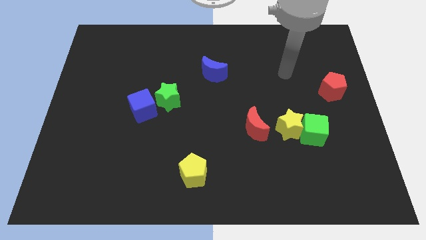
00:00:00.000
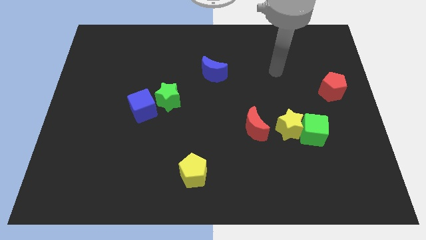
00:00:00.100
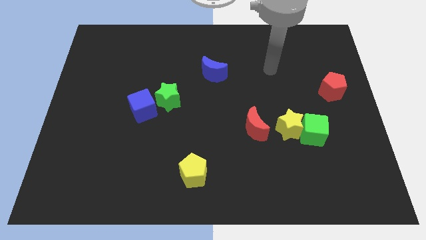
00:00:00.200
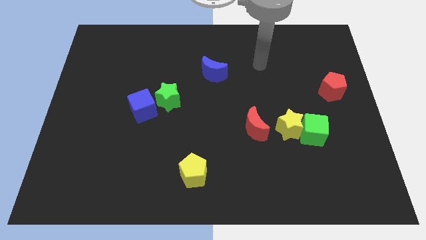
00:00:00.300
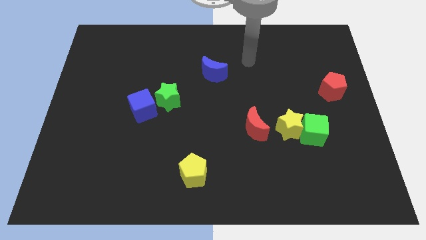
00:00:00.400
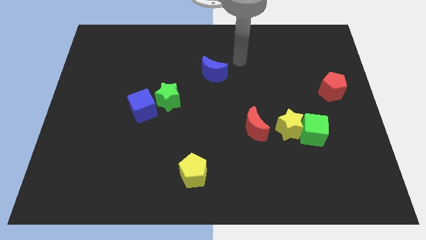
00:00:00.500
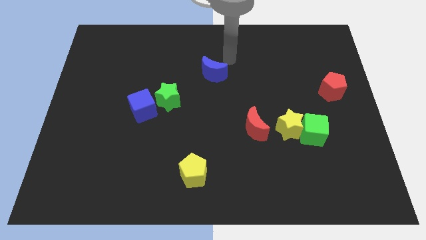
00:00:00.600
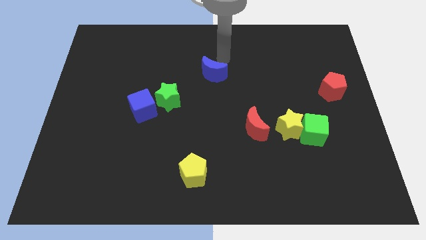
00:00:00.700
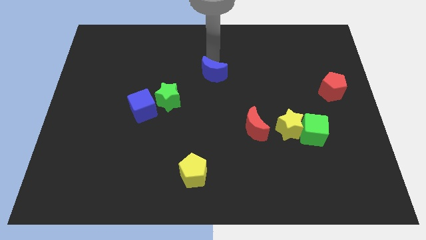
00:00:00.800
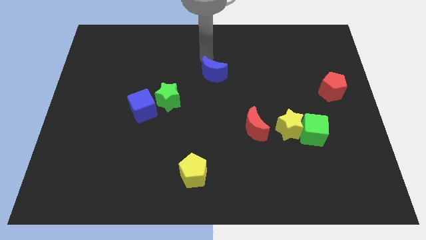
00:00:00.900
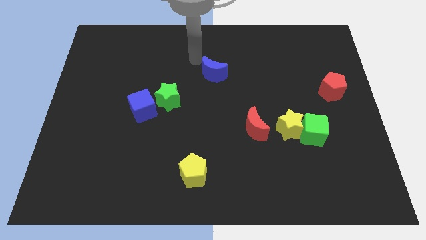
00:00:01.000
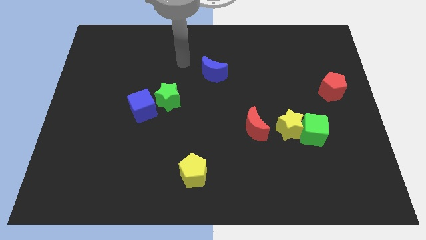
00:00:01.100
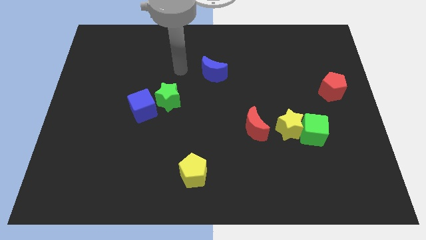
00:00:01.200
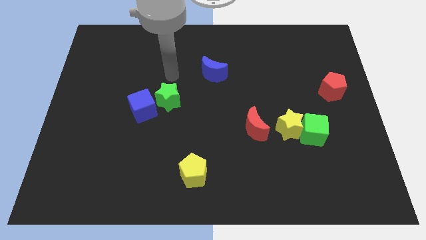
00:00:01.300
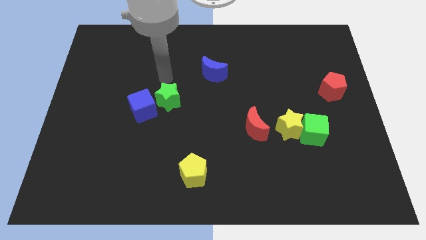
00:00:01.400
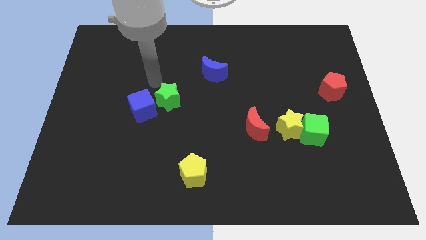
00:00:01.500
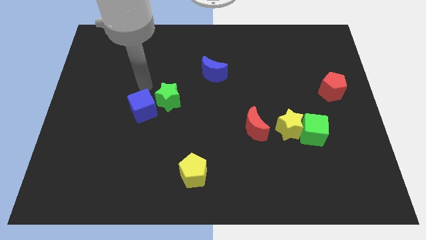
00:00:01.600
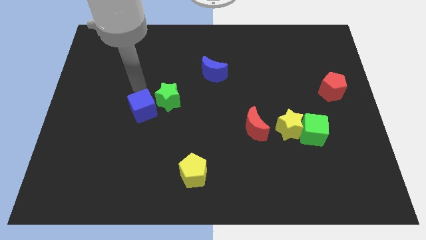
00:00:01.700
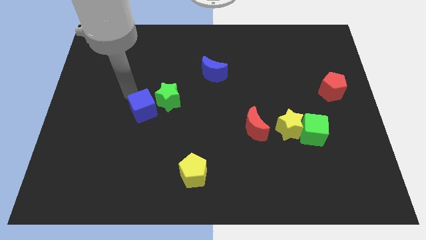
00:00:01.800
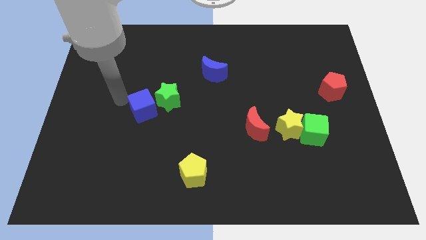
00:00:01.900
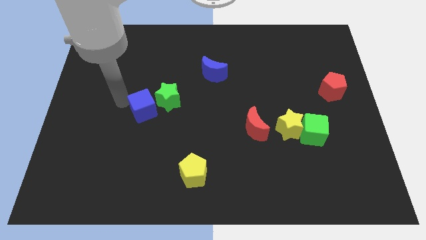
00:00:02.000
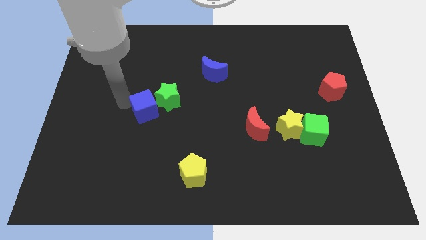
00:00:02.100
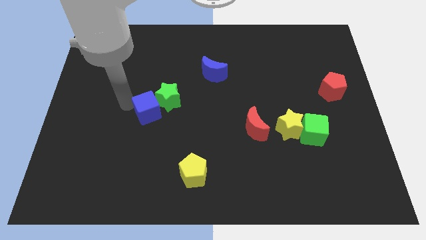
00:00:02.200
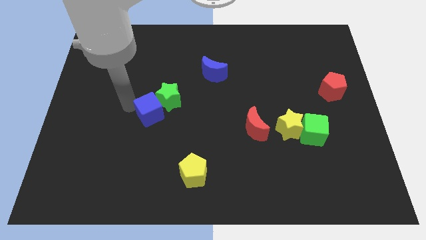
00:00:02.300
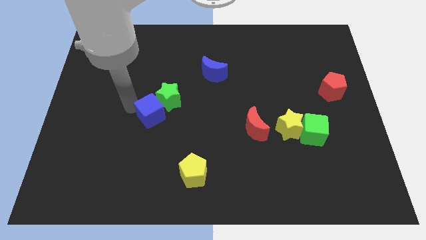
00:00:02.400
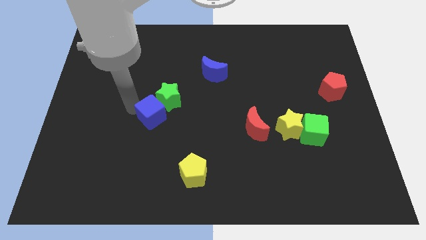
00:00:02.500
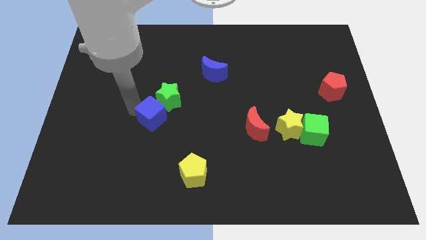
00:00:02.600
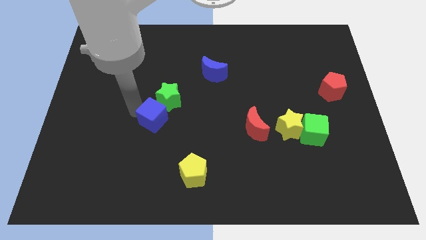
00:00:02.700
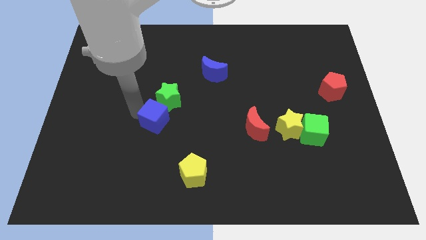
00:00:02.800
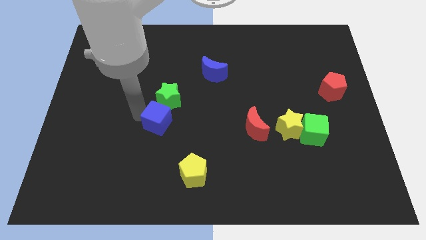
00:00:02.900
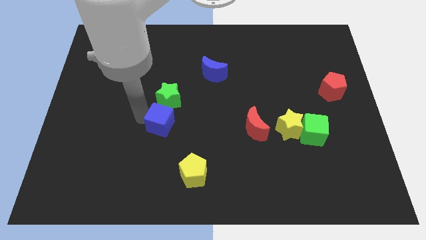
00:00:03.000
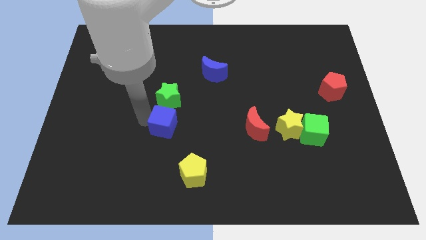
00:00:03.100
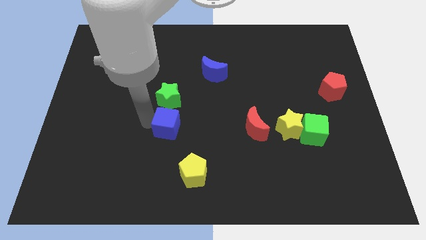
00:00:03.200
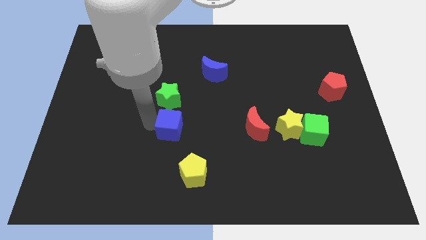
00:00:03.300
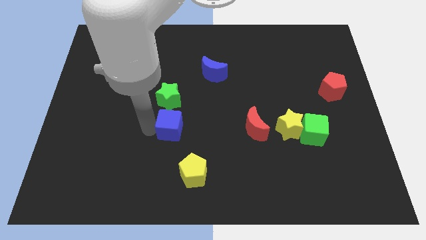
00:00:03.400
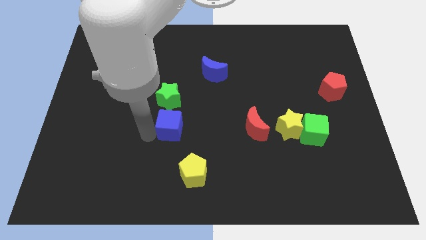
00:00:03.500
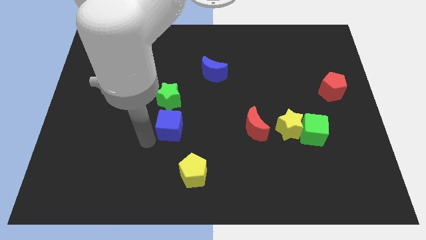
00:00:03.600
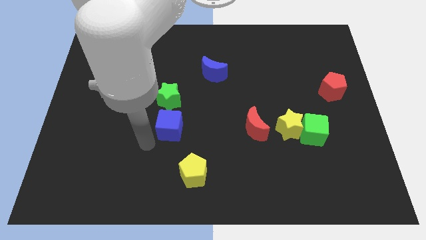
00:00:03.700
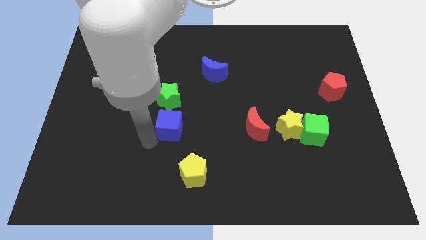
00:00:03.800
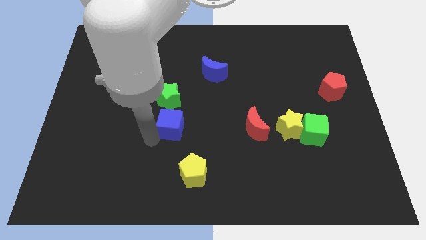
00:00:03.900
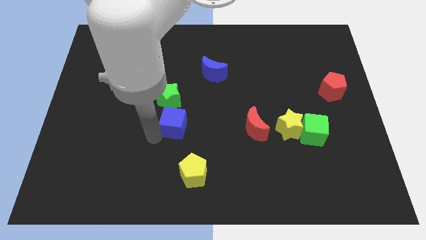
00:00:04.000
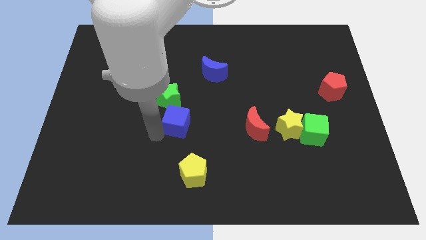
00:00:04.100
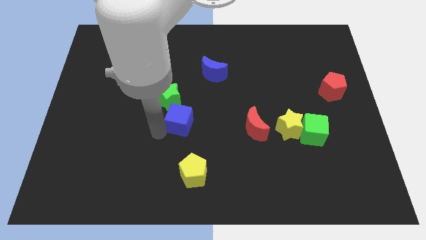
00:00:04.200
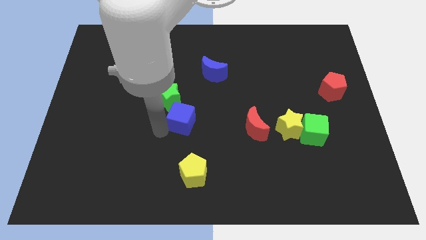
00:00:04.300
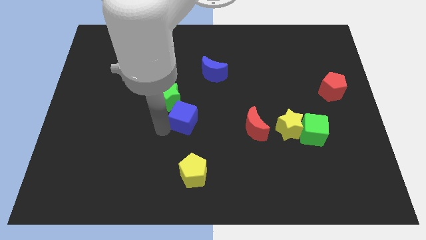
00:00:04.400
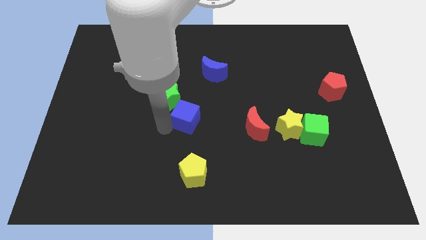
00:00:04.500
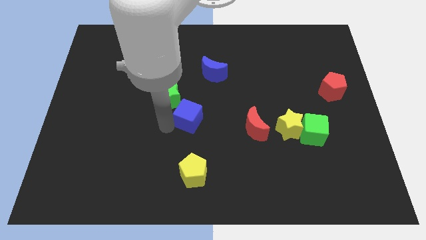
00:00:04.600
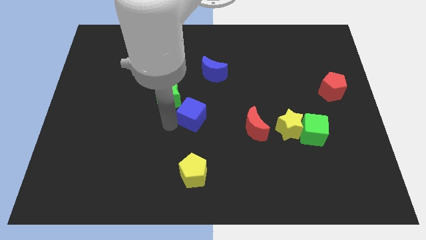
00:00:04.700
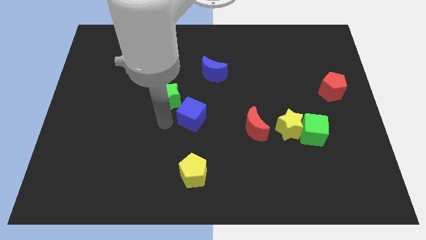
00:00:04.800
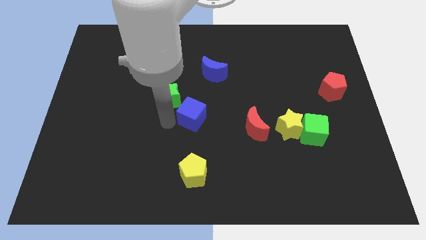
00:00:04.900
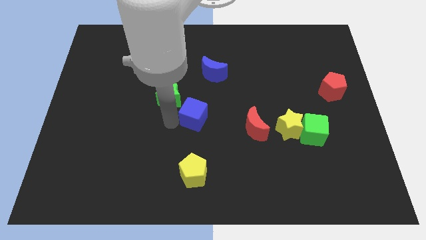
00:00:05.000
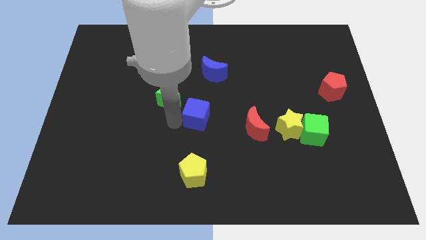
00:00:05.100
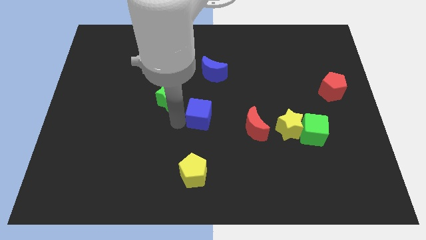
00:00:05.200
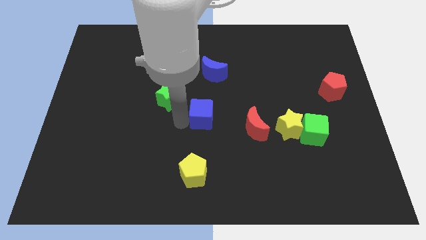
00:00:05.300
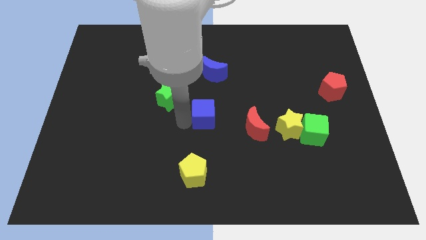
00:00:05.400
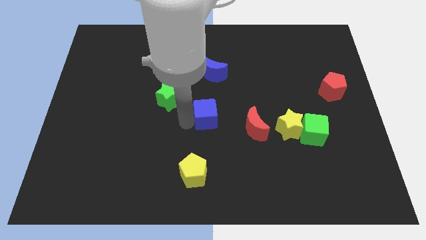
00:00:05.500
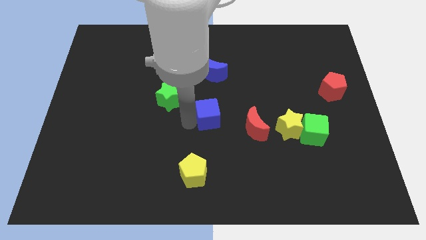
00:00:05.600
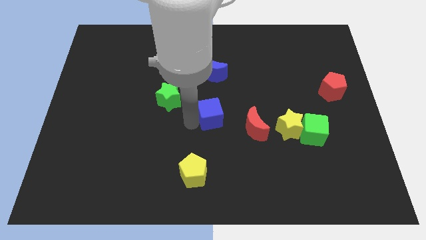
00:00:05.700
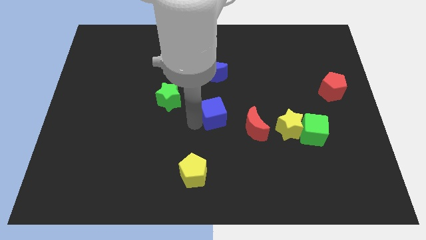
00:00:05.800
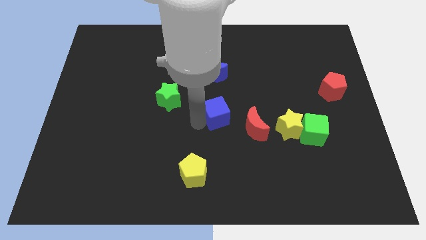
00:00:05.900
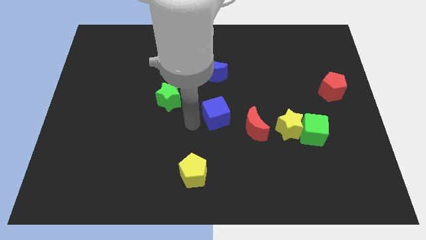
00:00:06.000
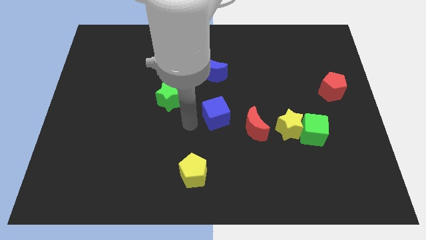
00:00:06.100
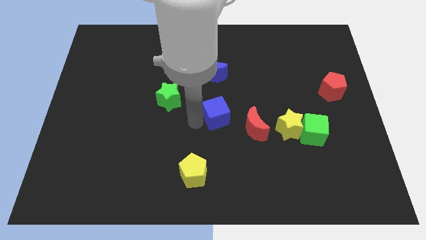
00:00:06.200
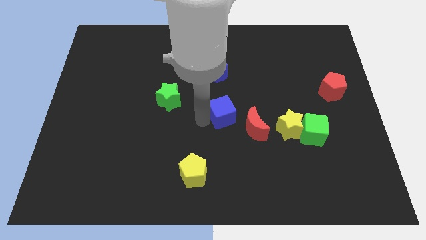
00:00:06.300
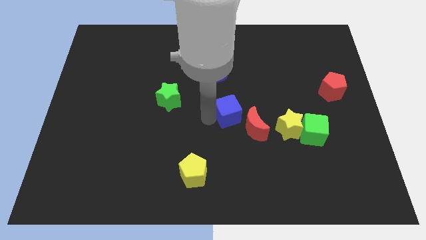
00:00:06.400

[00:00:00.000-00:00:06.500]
push the blue cube to the right

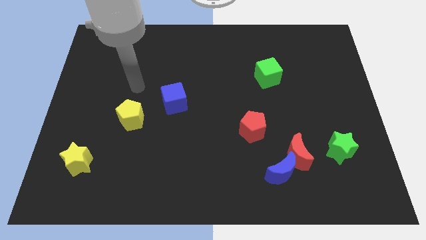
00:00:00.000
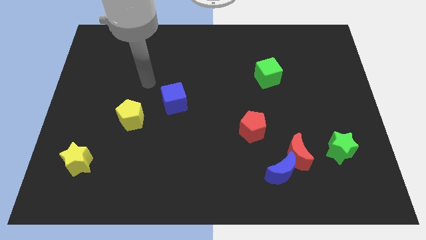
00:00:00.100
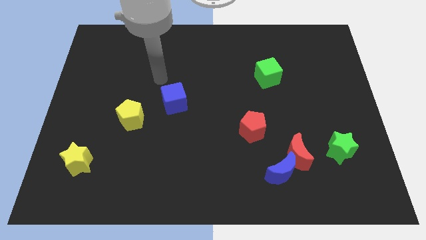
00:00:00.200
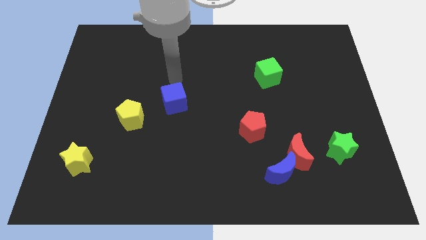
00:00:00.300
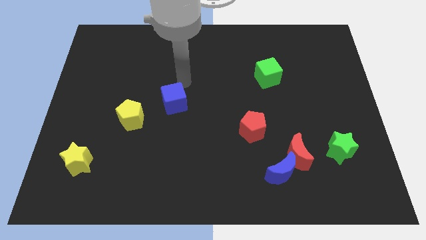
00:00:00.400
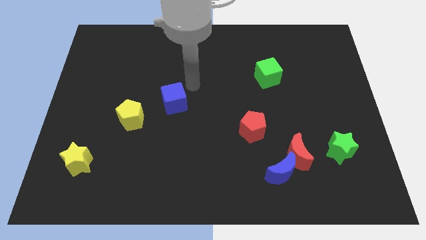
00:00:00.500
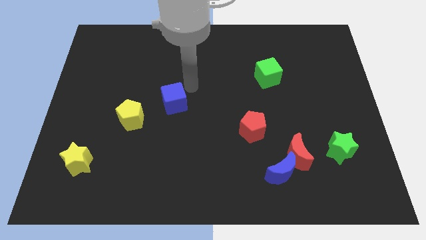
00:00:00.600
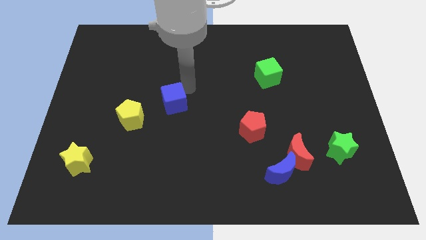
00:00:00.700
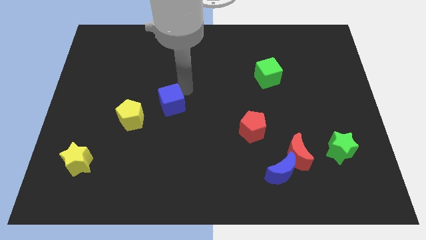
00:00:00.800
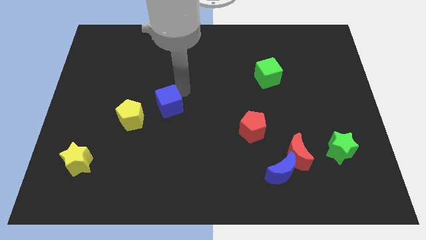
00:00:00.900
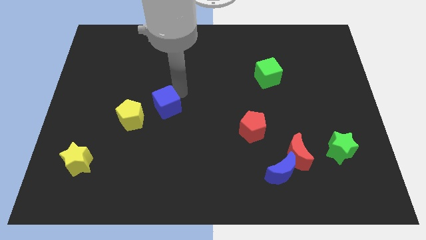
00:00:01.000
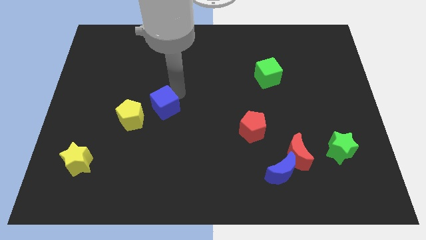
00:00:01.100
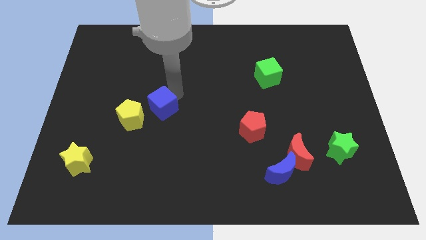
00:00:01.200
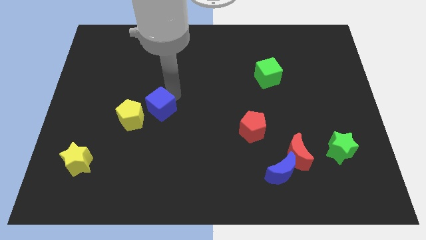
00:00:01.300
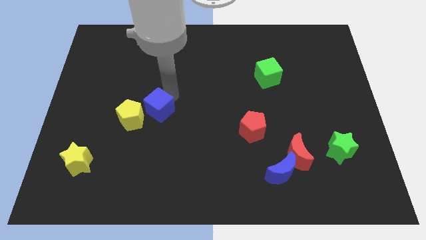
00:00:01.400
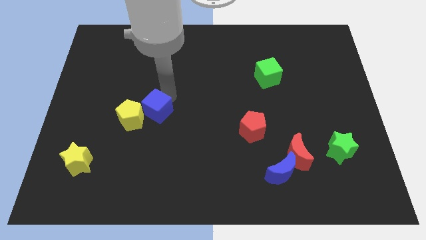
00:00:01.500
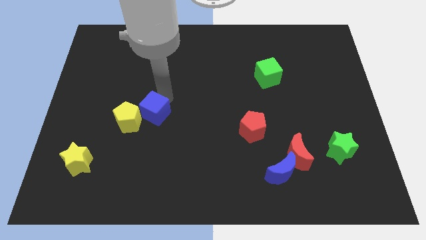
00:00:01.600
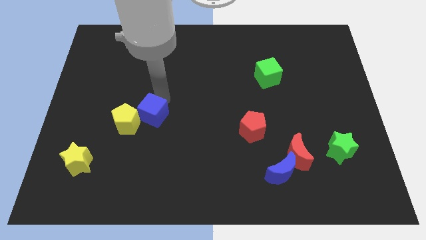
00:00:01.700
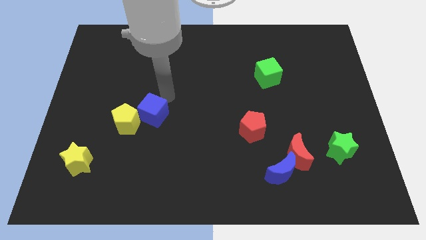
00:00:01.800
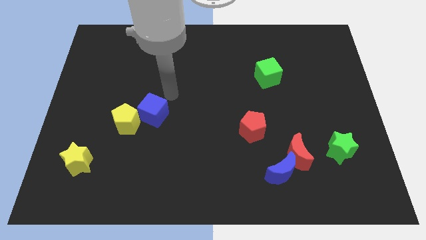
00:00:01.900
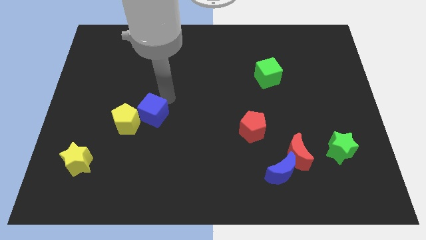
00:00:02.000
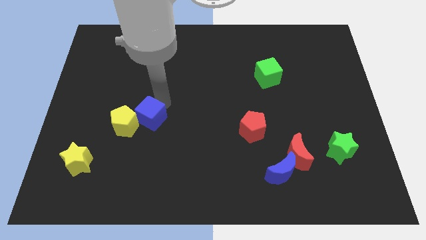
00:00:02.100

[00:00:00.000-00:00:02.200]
move the blue cube downwards and then left slightly
